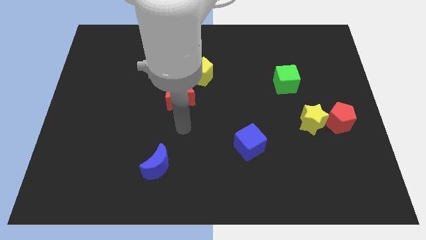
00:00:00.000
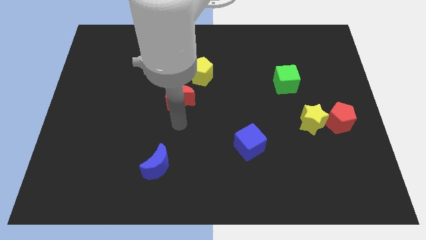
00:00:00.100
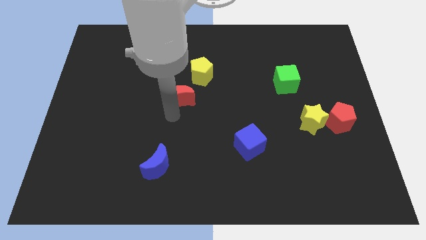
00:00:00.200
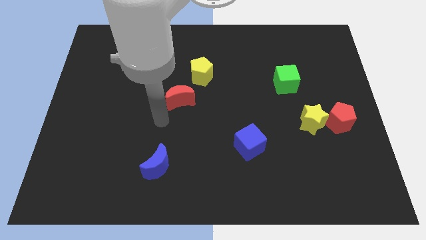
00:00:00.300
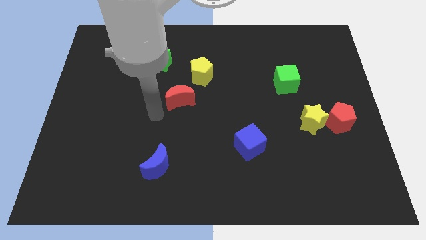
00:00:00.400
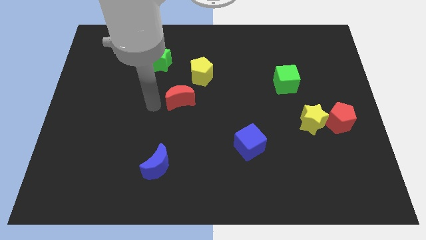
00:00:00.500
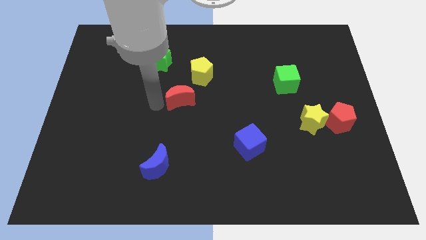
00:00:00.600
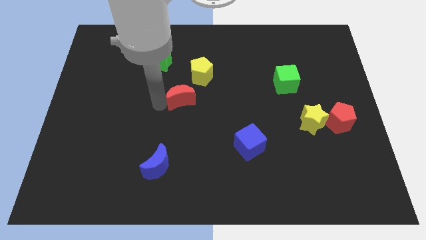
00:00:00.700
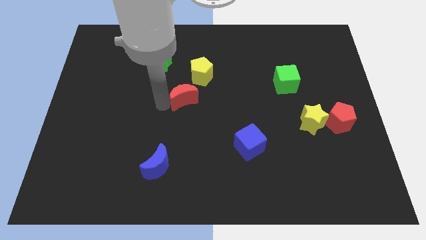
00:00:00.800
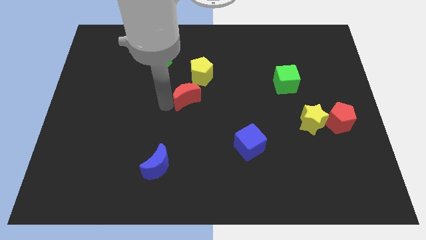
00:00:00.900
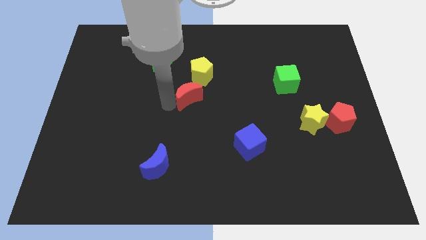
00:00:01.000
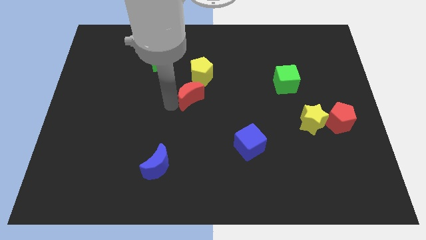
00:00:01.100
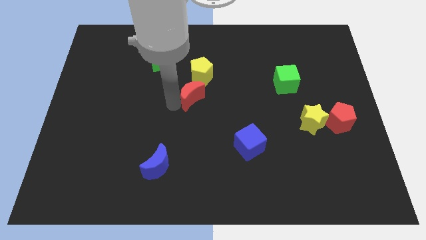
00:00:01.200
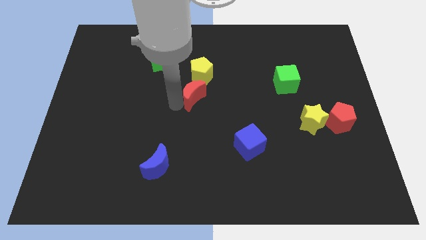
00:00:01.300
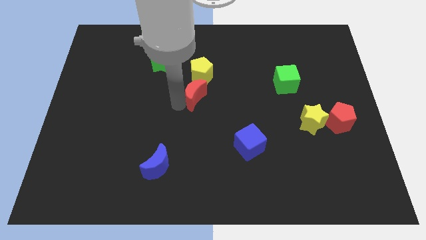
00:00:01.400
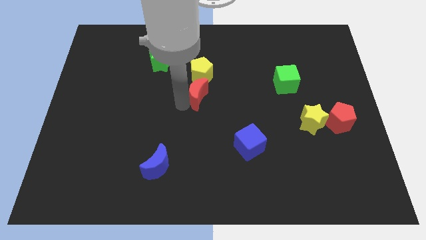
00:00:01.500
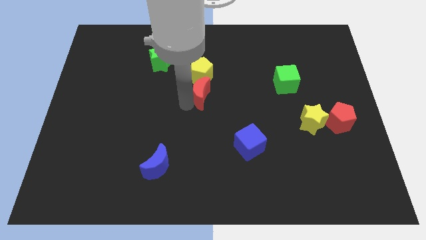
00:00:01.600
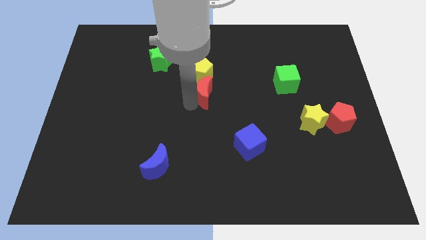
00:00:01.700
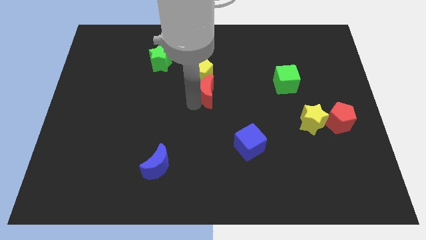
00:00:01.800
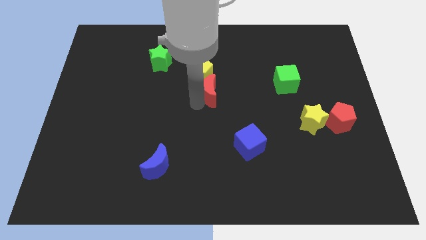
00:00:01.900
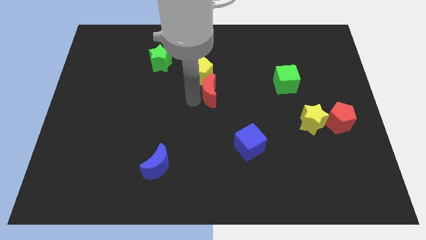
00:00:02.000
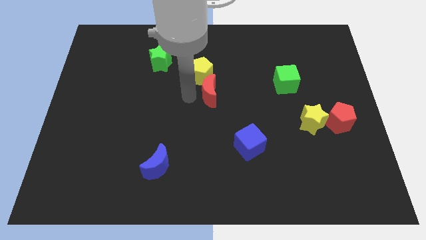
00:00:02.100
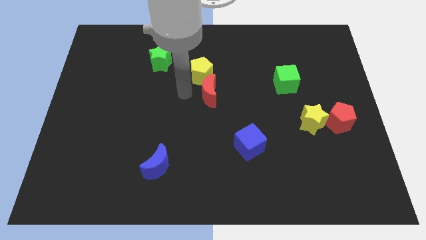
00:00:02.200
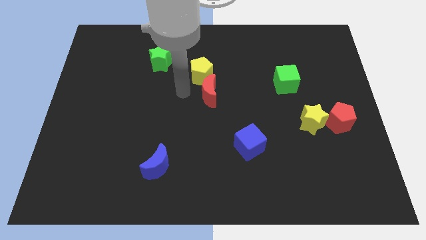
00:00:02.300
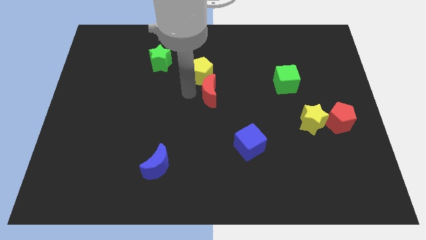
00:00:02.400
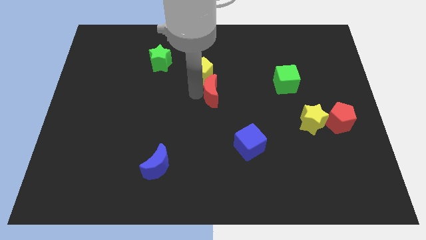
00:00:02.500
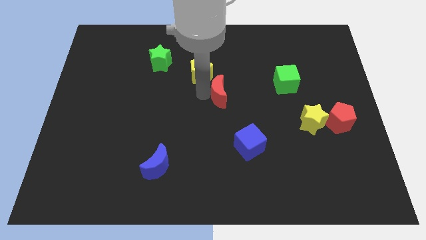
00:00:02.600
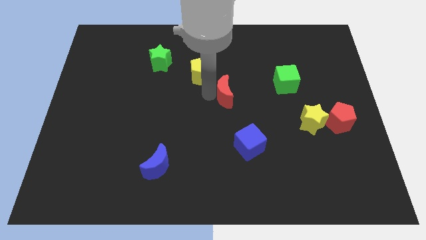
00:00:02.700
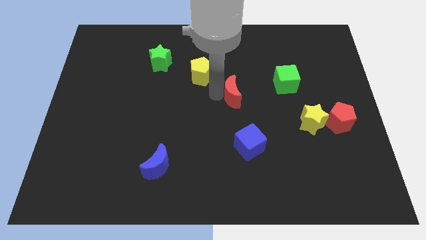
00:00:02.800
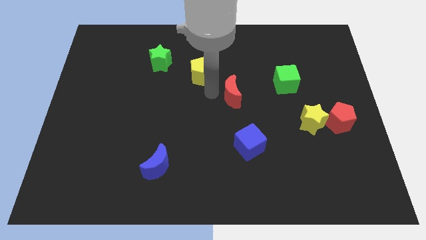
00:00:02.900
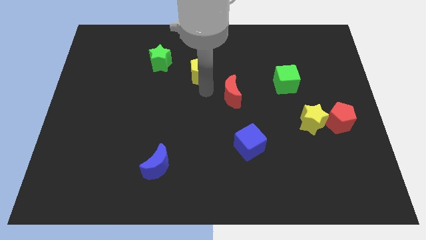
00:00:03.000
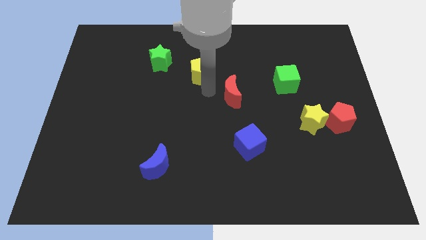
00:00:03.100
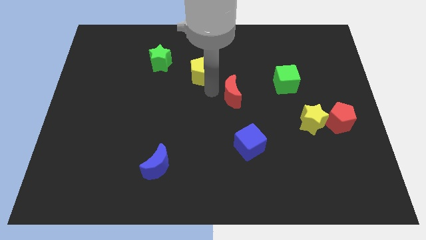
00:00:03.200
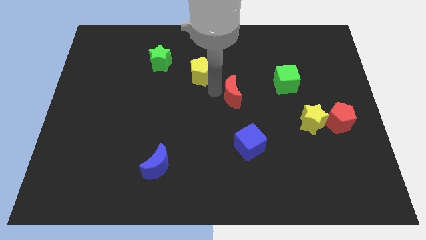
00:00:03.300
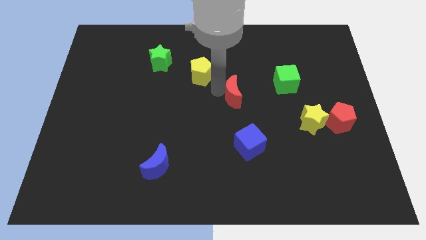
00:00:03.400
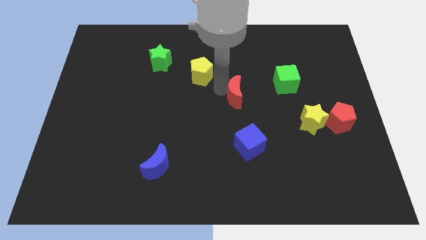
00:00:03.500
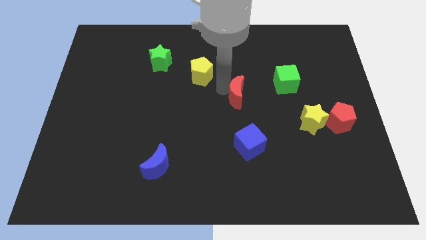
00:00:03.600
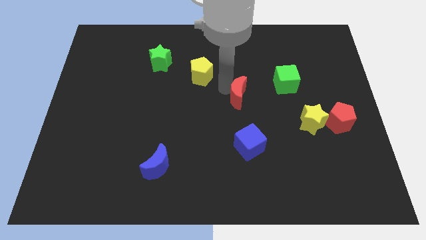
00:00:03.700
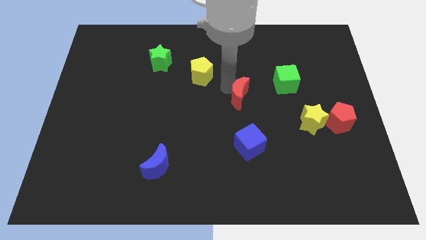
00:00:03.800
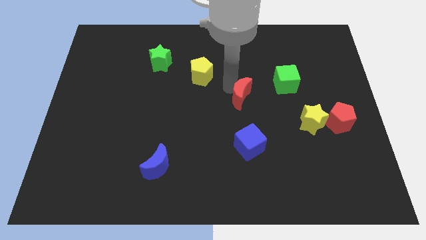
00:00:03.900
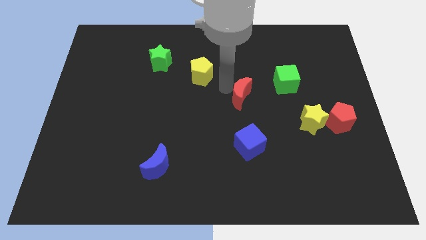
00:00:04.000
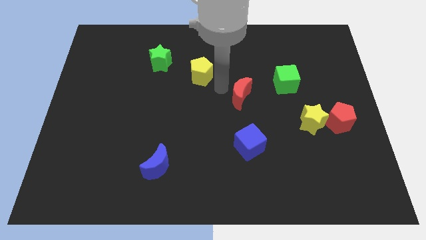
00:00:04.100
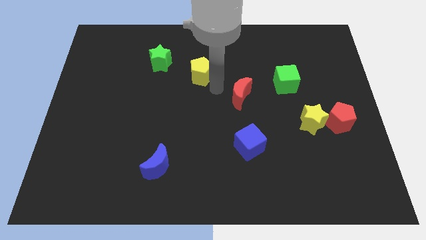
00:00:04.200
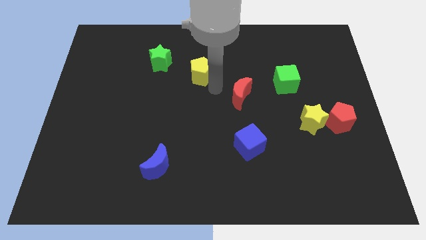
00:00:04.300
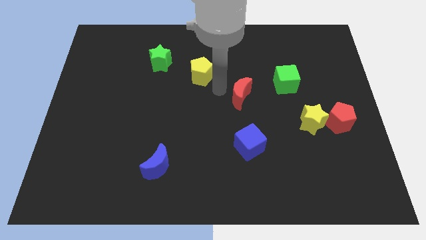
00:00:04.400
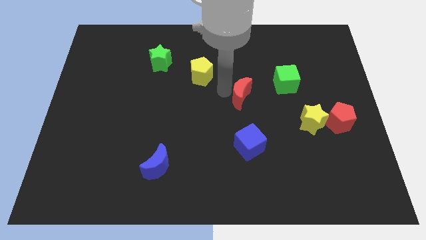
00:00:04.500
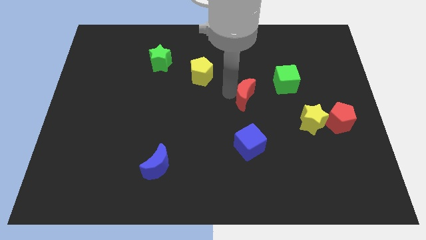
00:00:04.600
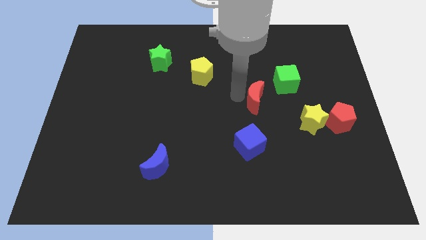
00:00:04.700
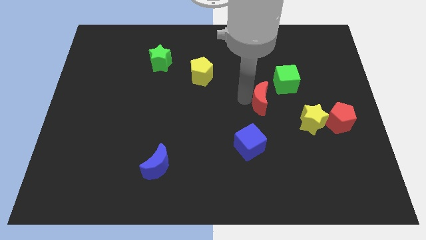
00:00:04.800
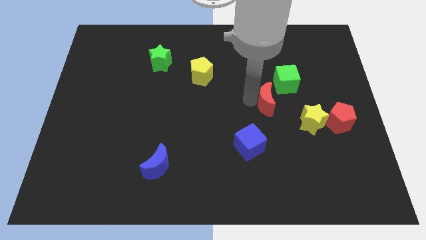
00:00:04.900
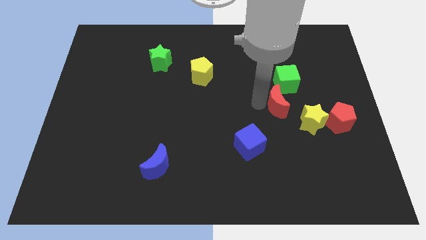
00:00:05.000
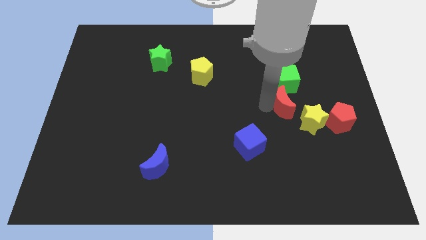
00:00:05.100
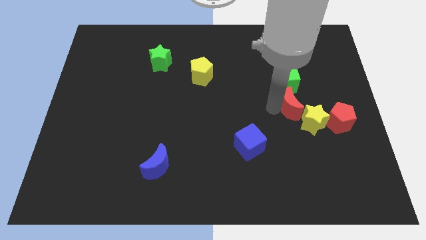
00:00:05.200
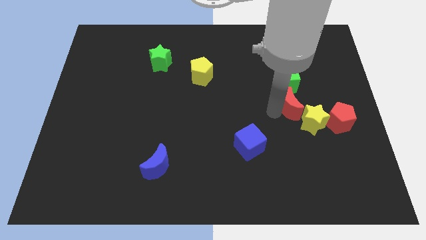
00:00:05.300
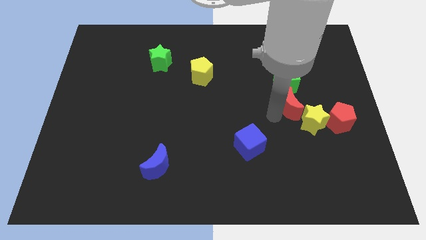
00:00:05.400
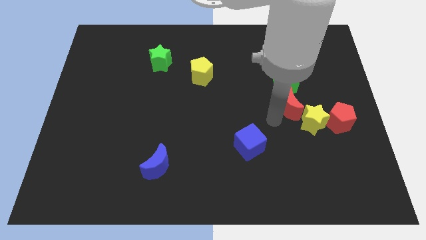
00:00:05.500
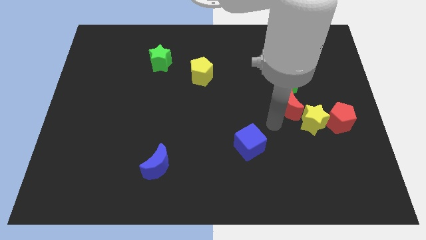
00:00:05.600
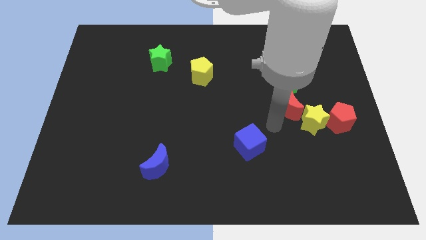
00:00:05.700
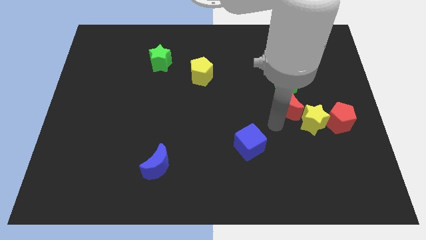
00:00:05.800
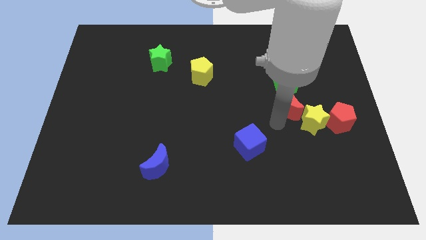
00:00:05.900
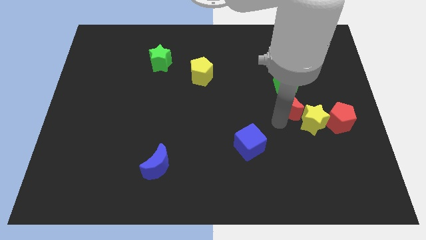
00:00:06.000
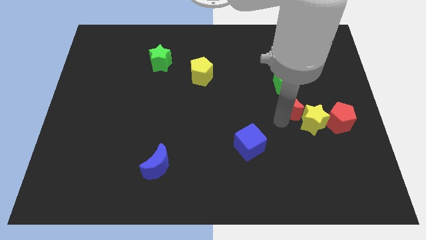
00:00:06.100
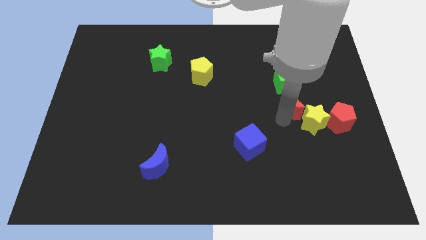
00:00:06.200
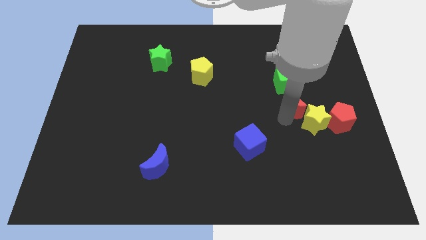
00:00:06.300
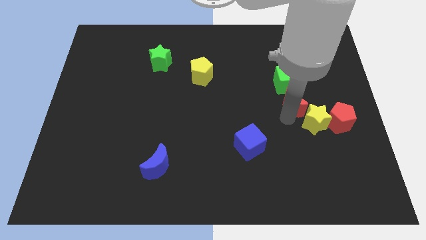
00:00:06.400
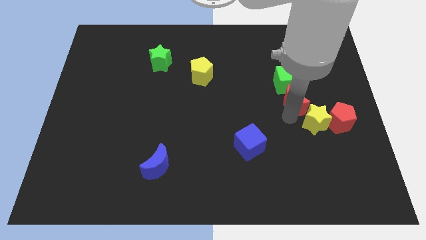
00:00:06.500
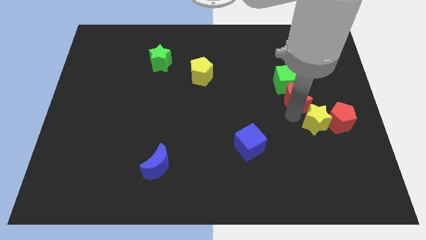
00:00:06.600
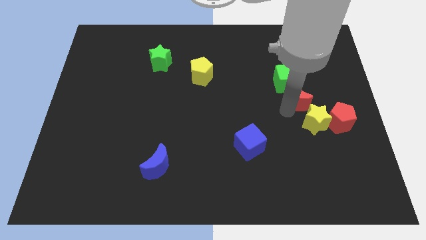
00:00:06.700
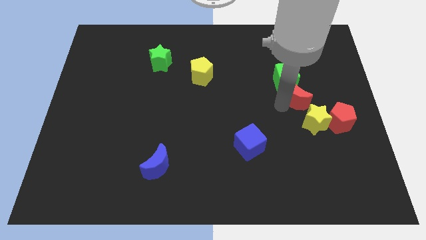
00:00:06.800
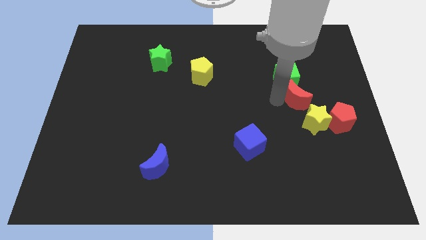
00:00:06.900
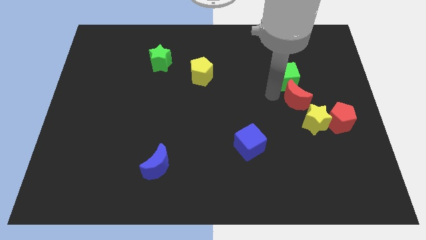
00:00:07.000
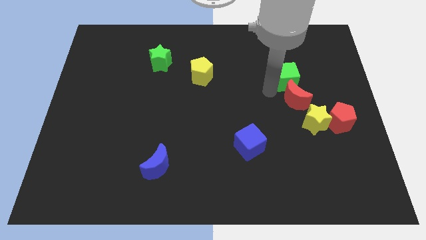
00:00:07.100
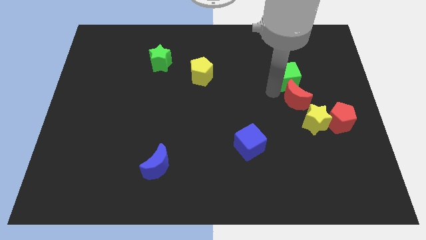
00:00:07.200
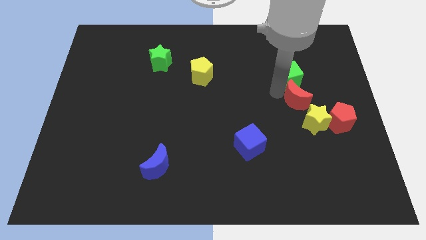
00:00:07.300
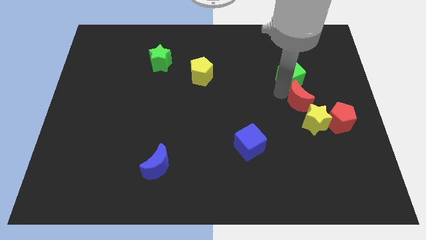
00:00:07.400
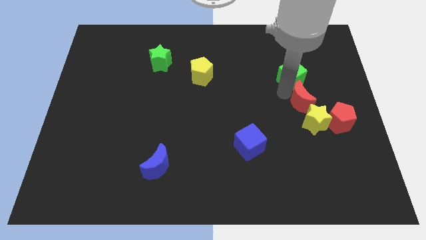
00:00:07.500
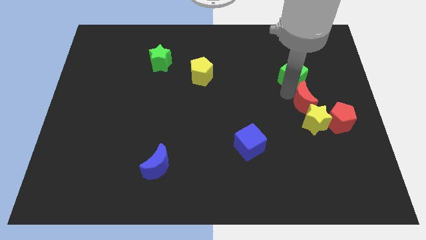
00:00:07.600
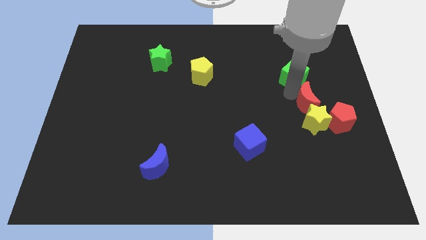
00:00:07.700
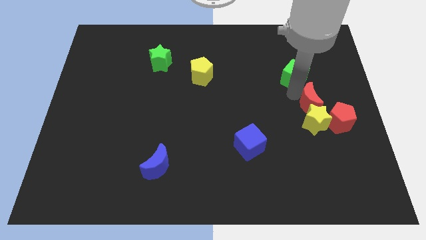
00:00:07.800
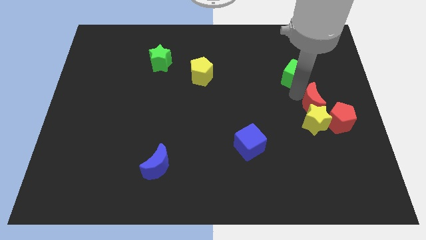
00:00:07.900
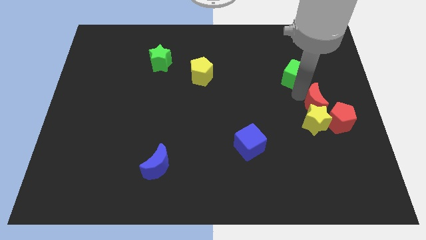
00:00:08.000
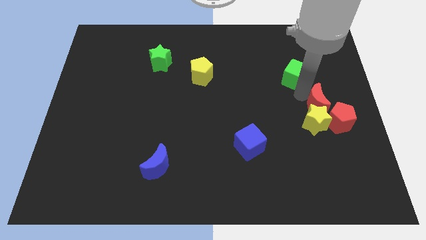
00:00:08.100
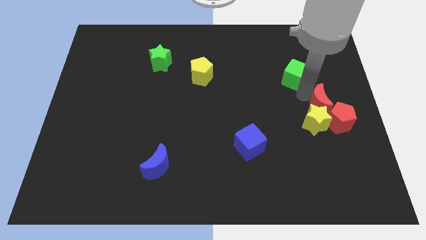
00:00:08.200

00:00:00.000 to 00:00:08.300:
slide the red moon close to the red pentagon
